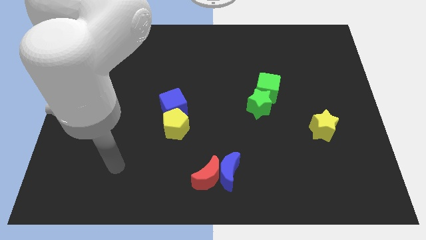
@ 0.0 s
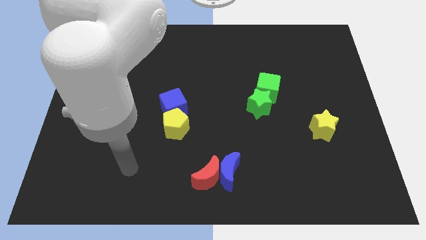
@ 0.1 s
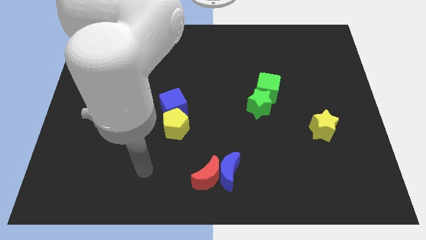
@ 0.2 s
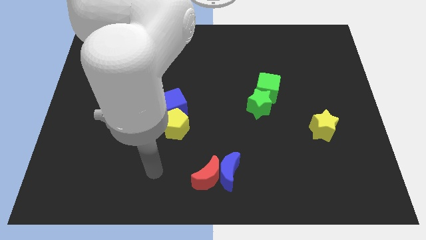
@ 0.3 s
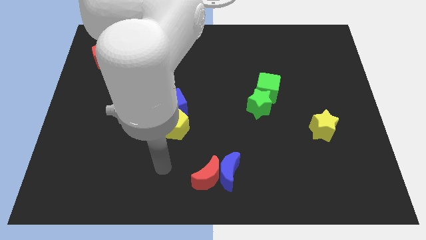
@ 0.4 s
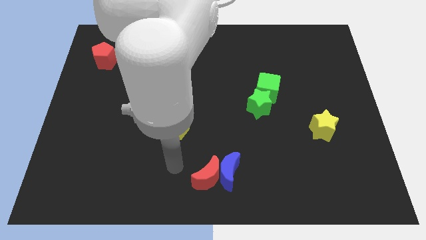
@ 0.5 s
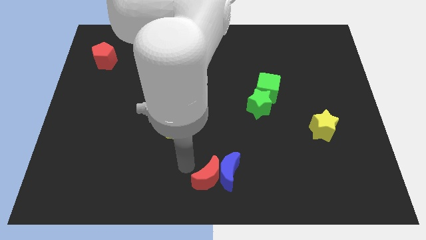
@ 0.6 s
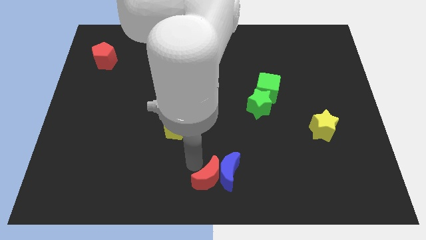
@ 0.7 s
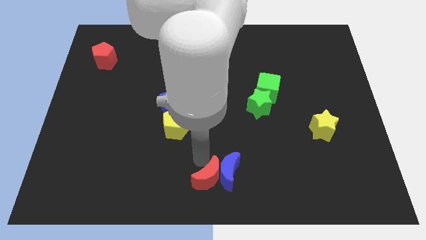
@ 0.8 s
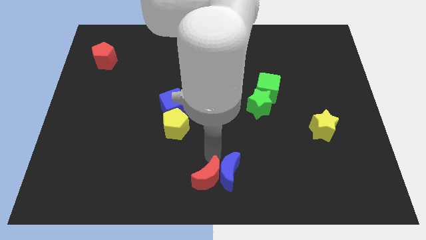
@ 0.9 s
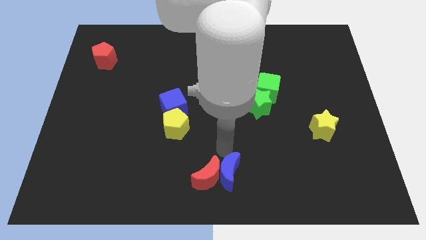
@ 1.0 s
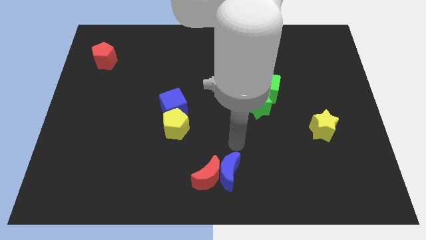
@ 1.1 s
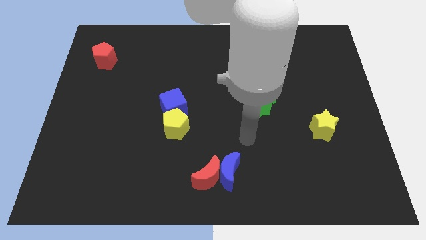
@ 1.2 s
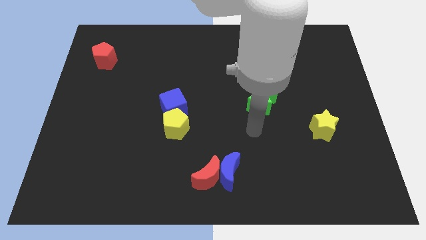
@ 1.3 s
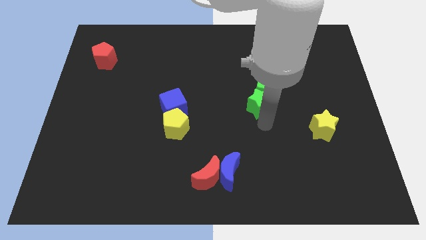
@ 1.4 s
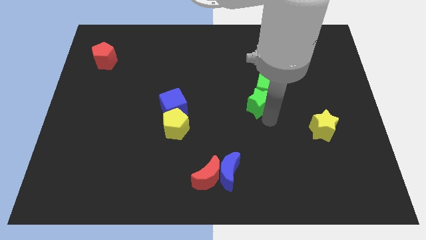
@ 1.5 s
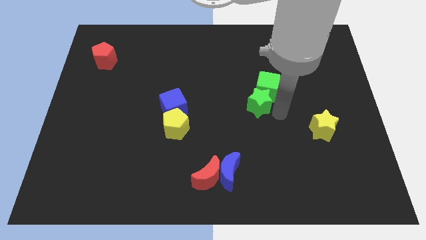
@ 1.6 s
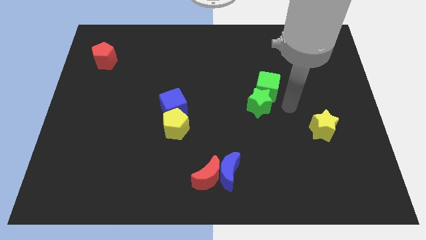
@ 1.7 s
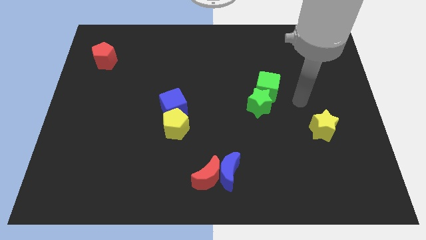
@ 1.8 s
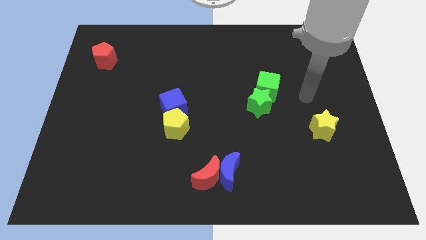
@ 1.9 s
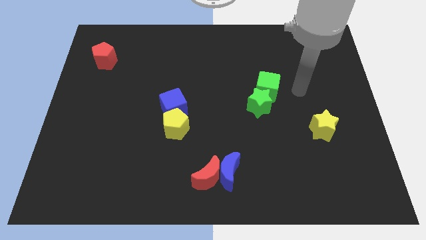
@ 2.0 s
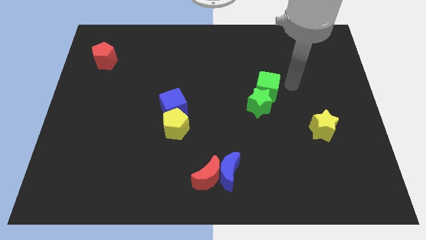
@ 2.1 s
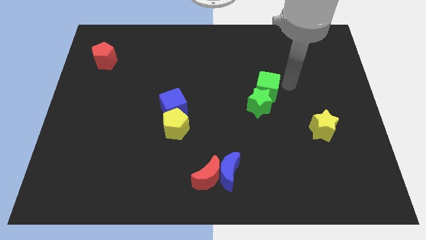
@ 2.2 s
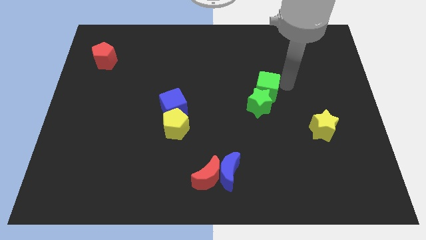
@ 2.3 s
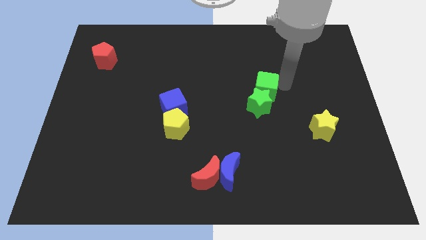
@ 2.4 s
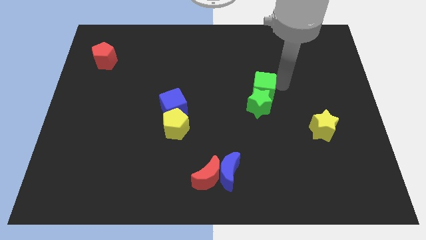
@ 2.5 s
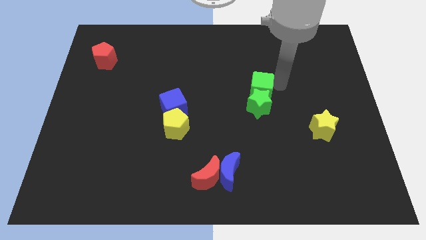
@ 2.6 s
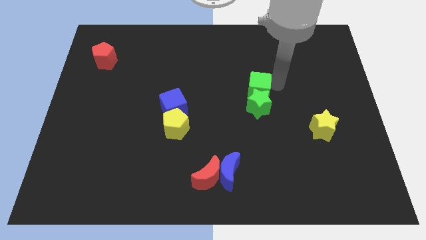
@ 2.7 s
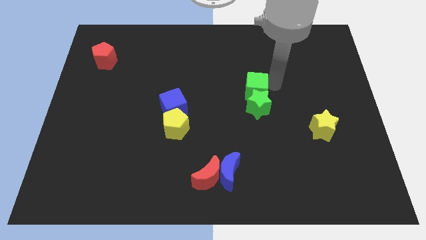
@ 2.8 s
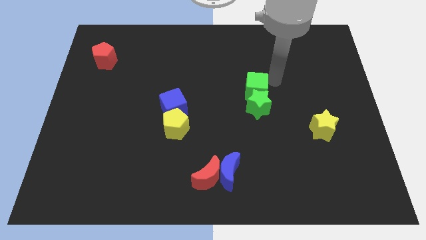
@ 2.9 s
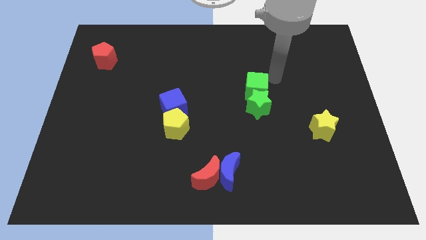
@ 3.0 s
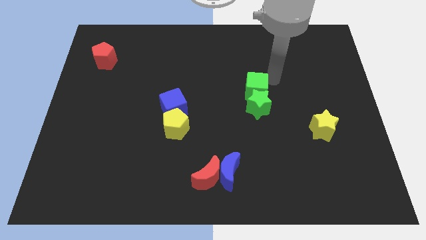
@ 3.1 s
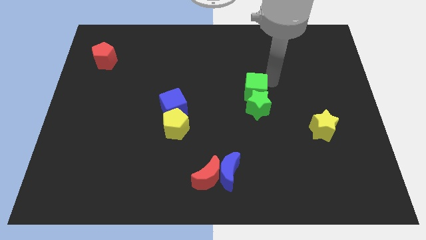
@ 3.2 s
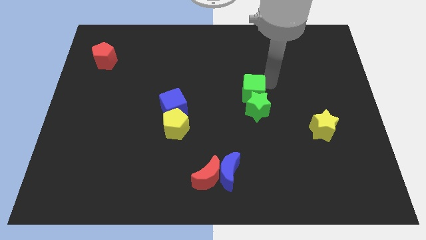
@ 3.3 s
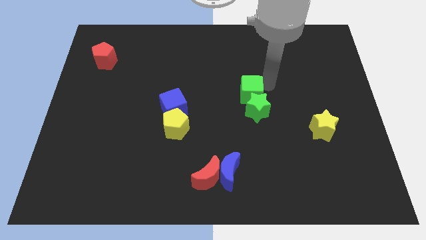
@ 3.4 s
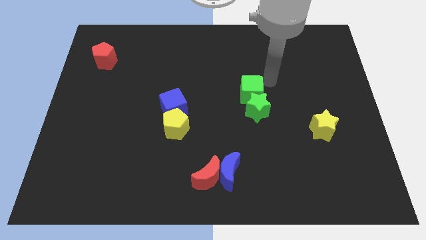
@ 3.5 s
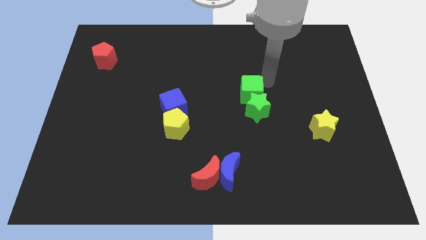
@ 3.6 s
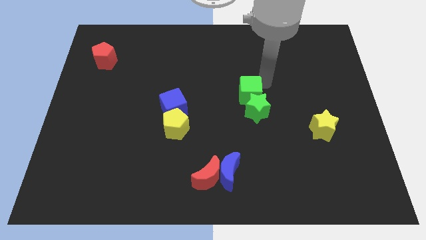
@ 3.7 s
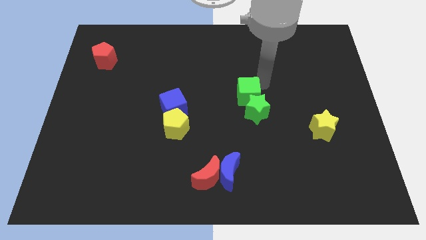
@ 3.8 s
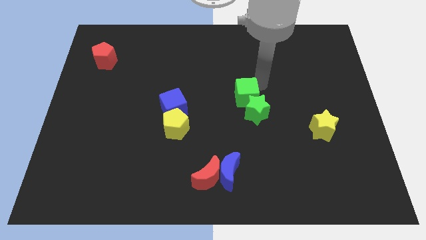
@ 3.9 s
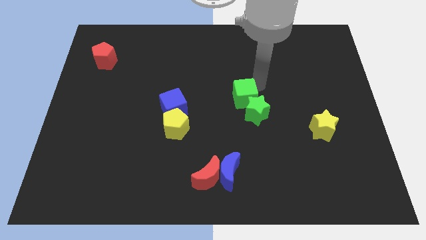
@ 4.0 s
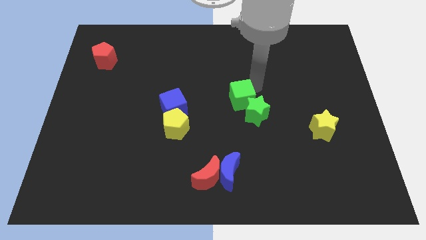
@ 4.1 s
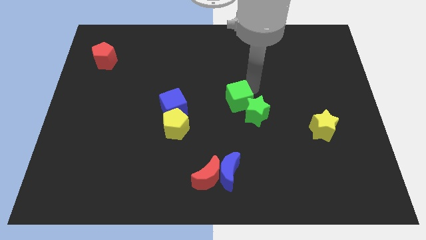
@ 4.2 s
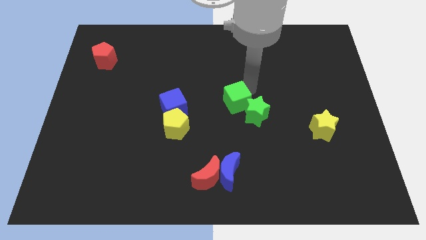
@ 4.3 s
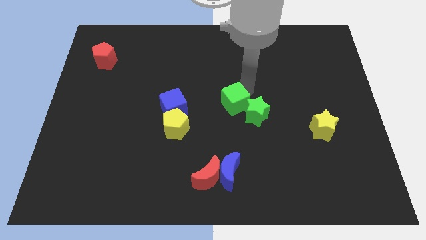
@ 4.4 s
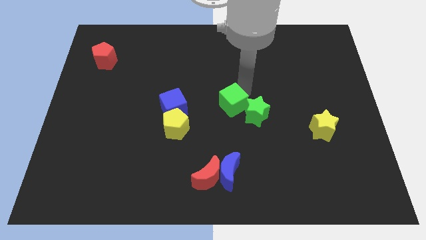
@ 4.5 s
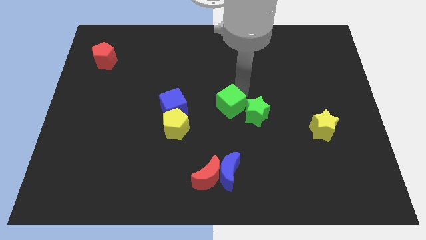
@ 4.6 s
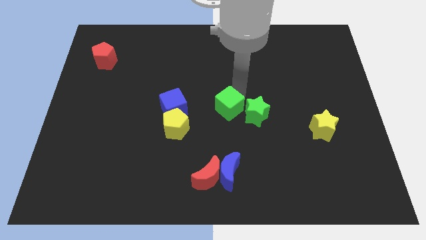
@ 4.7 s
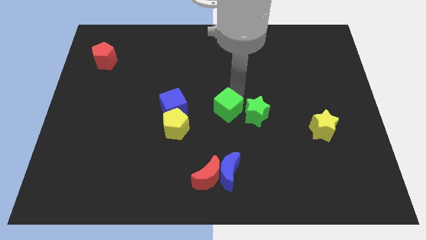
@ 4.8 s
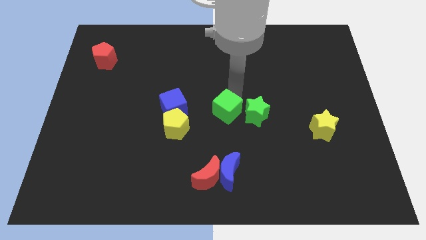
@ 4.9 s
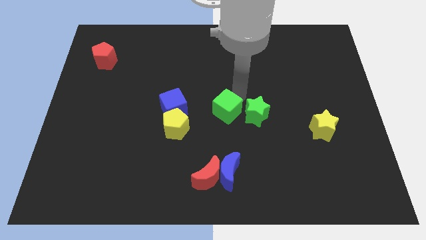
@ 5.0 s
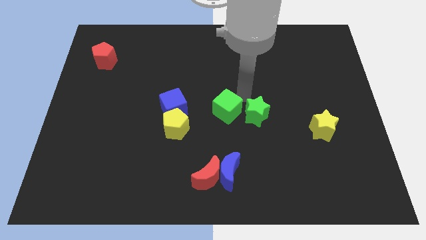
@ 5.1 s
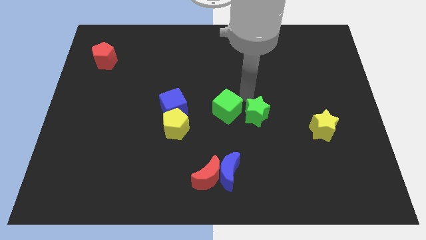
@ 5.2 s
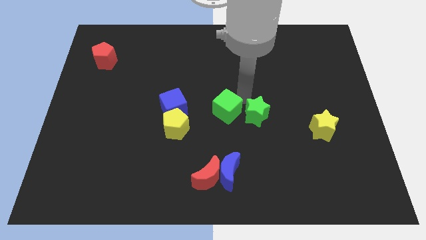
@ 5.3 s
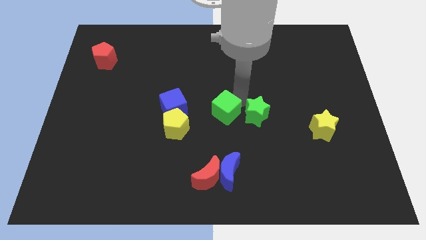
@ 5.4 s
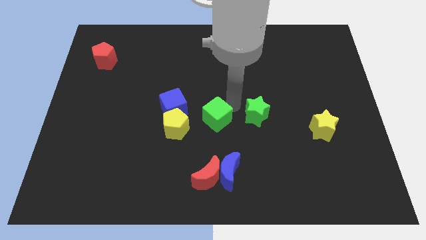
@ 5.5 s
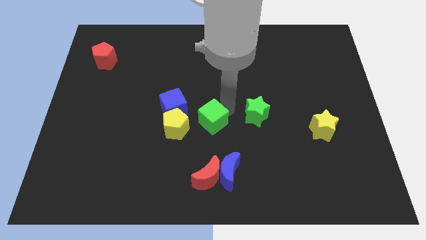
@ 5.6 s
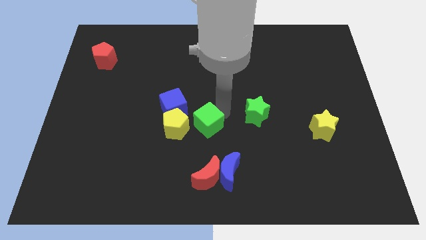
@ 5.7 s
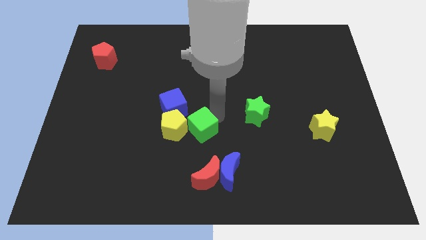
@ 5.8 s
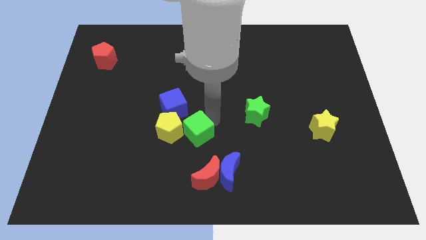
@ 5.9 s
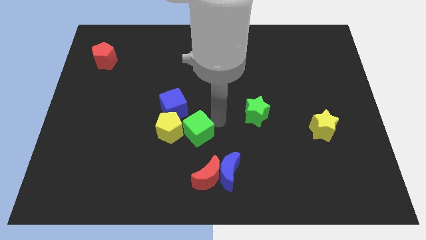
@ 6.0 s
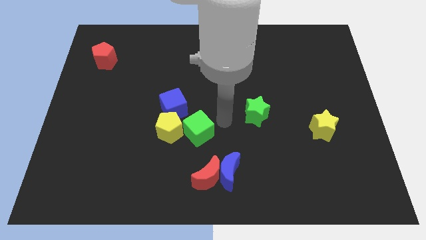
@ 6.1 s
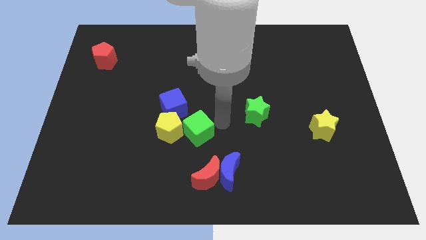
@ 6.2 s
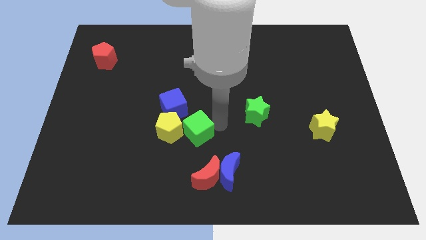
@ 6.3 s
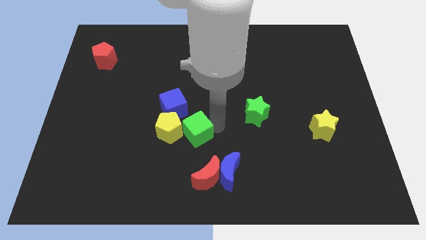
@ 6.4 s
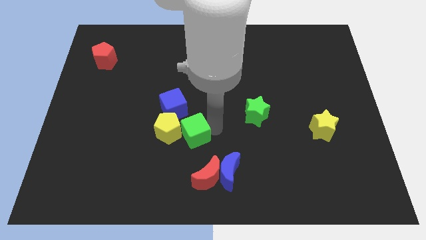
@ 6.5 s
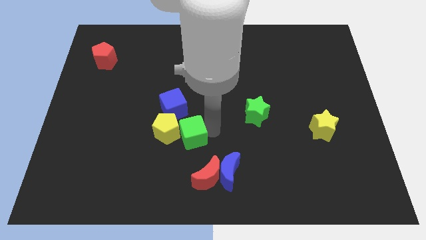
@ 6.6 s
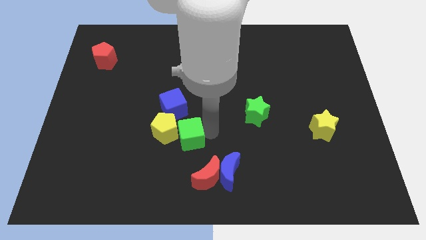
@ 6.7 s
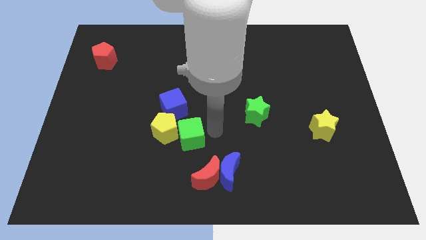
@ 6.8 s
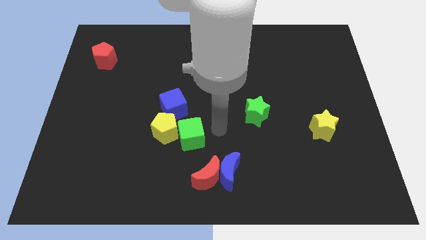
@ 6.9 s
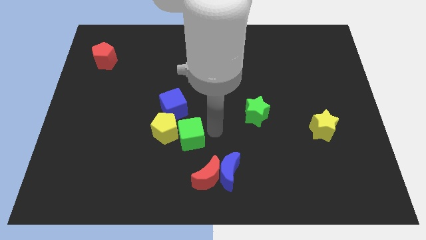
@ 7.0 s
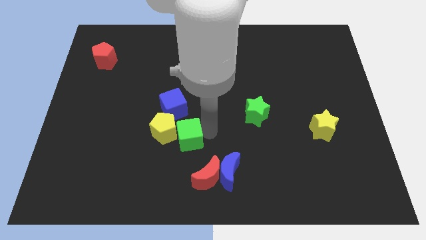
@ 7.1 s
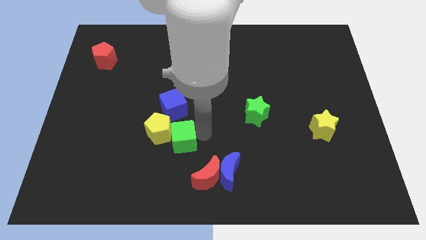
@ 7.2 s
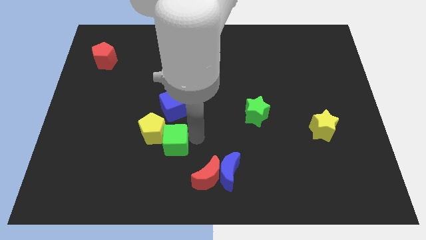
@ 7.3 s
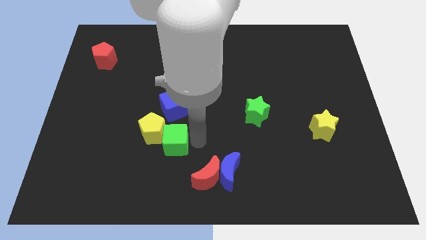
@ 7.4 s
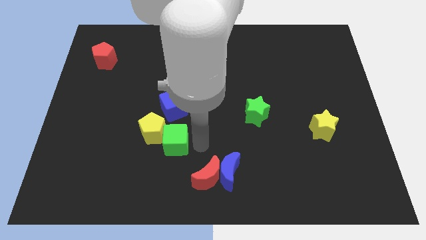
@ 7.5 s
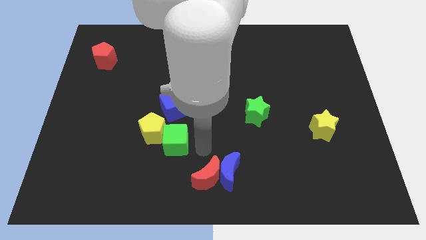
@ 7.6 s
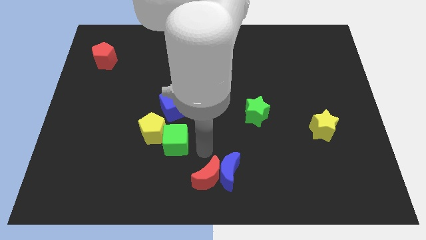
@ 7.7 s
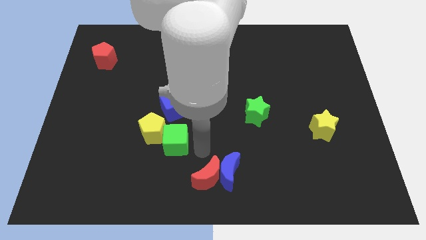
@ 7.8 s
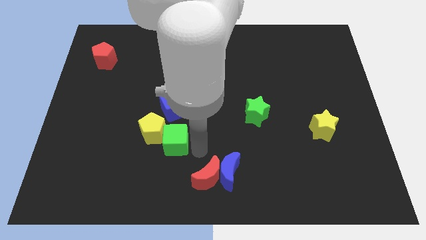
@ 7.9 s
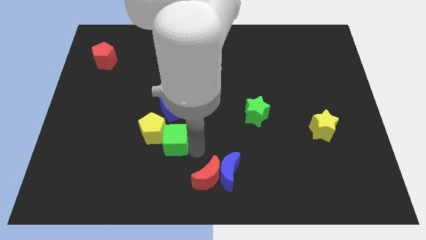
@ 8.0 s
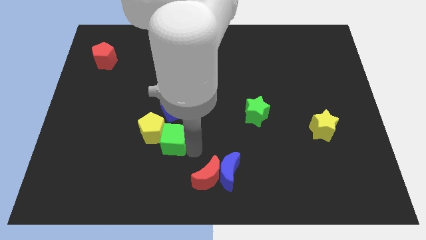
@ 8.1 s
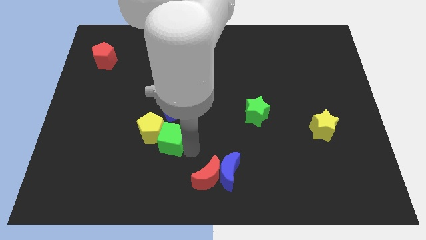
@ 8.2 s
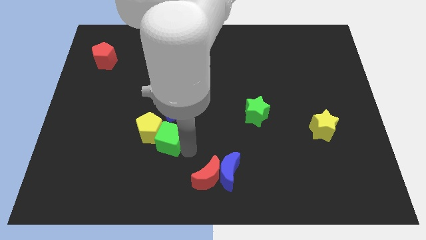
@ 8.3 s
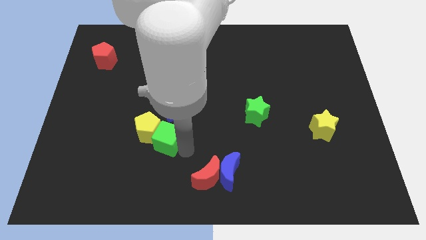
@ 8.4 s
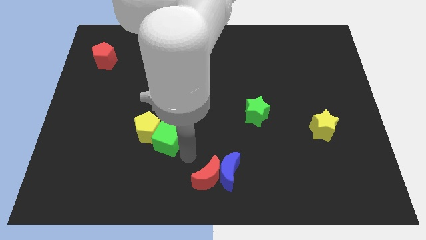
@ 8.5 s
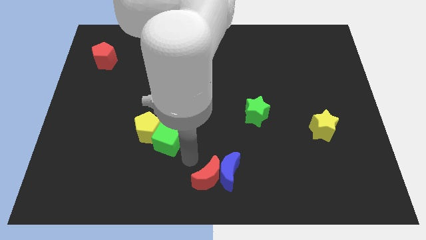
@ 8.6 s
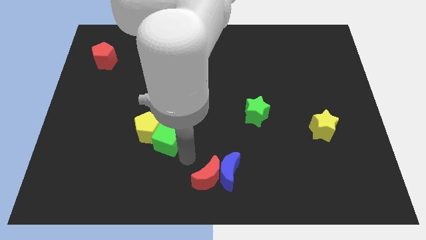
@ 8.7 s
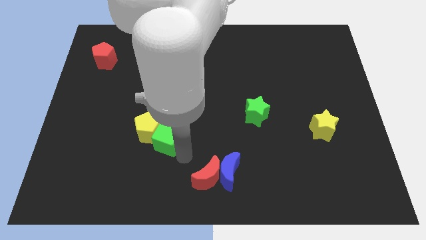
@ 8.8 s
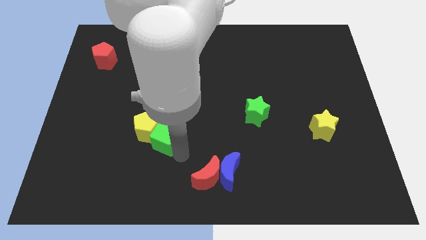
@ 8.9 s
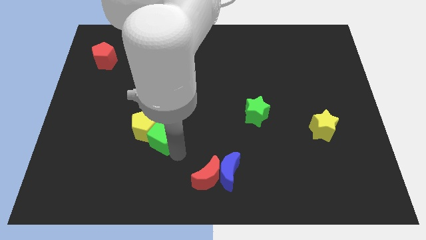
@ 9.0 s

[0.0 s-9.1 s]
put the green cube to the bottom left of the blue cube
